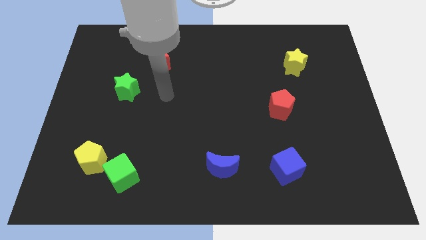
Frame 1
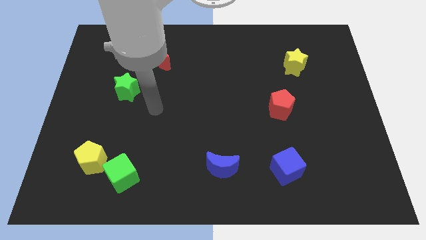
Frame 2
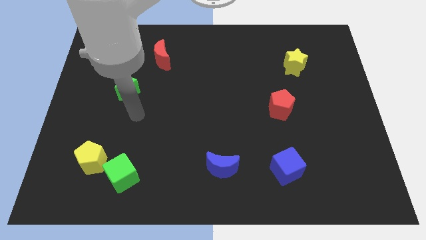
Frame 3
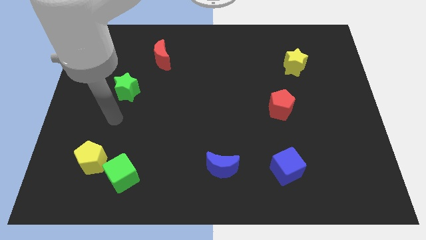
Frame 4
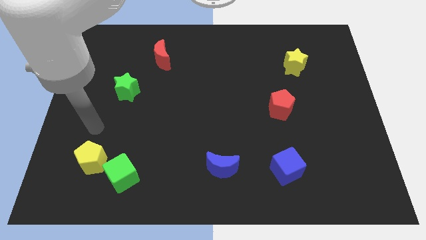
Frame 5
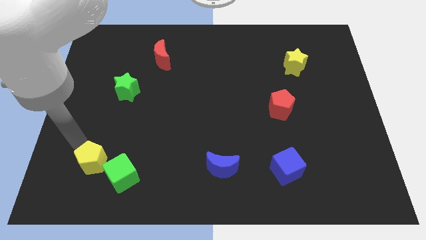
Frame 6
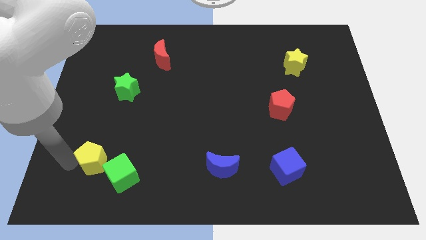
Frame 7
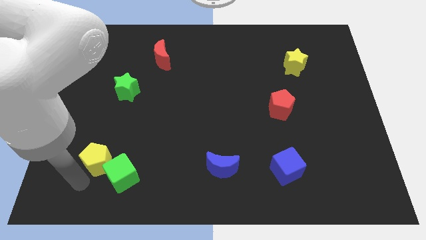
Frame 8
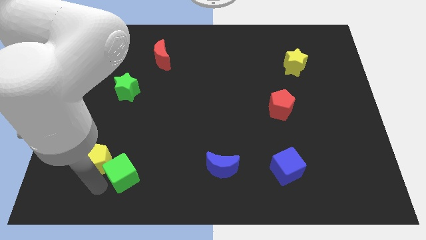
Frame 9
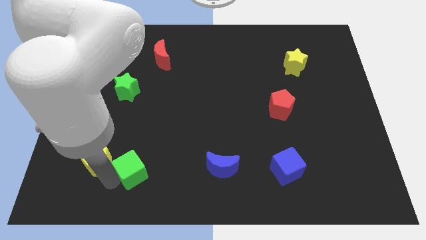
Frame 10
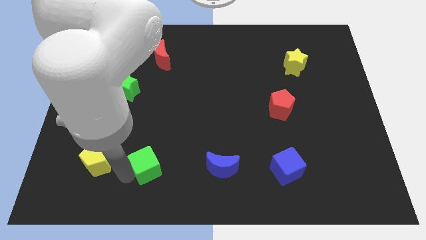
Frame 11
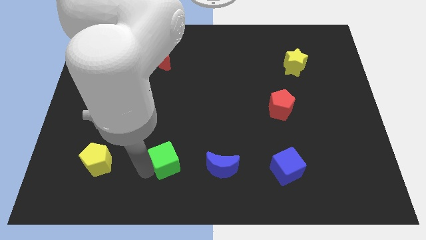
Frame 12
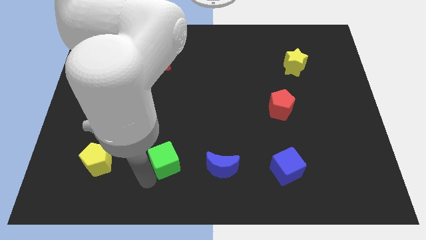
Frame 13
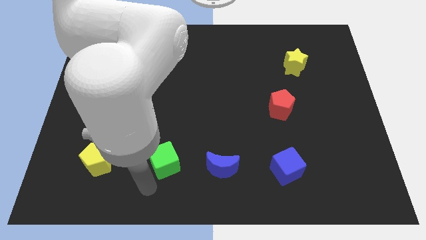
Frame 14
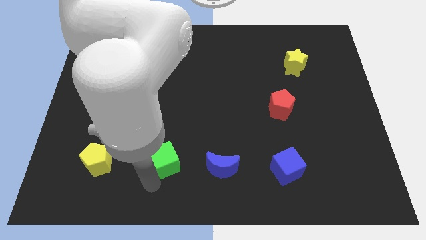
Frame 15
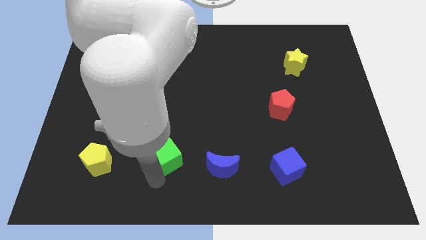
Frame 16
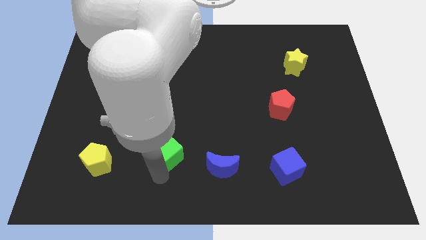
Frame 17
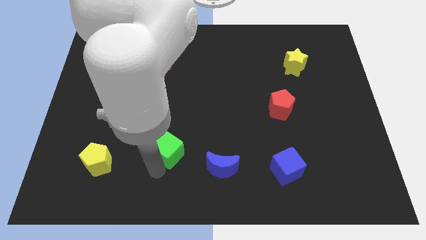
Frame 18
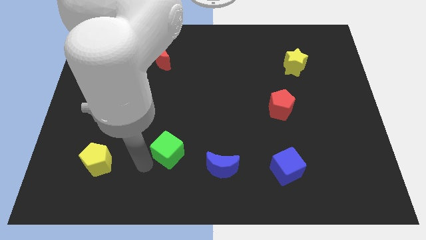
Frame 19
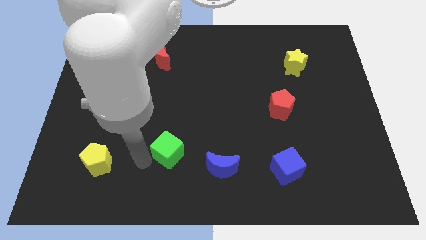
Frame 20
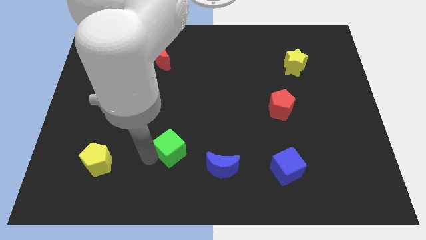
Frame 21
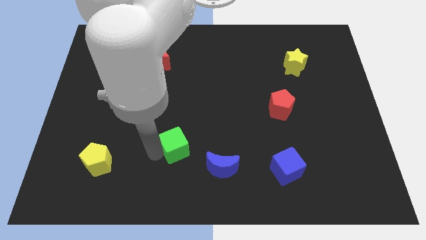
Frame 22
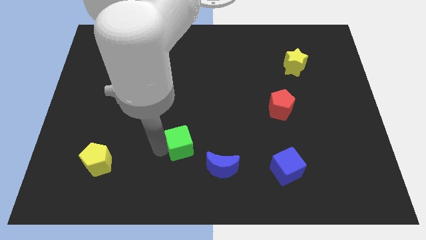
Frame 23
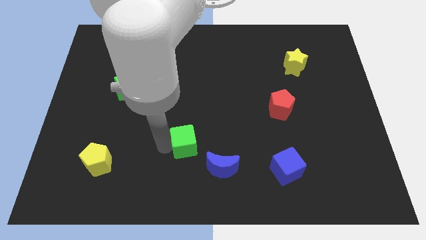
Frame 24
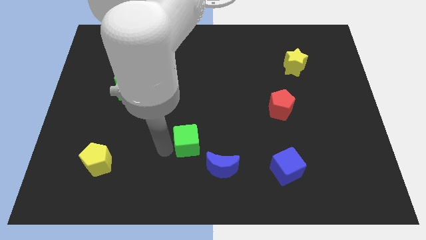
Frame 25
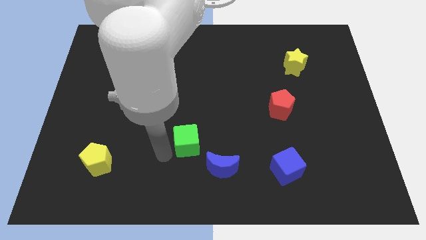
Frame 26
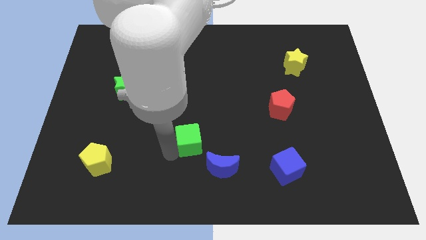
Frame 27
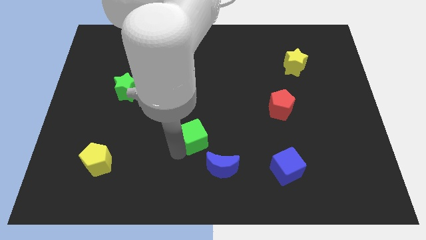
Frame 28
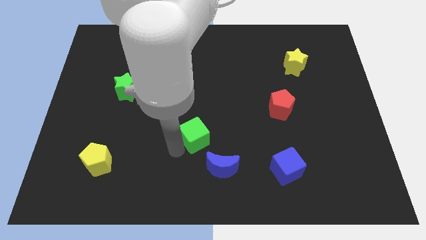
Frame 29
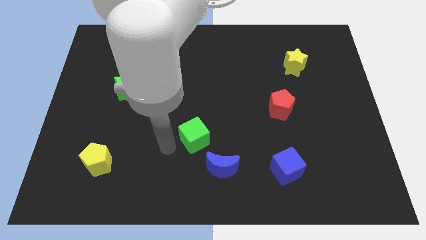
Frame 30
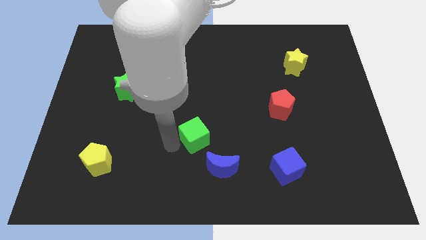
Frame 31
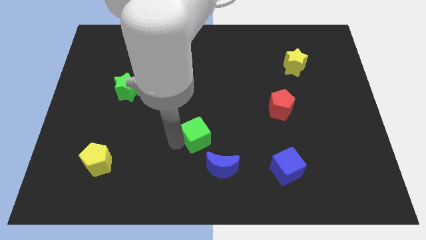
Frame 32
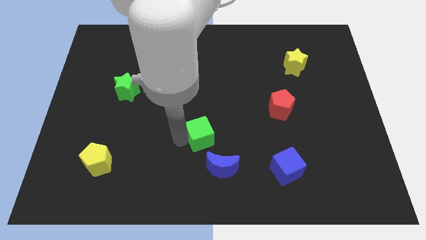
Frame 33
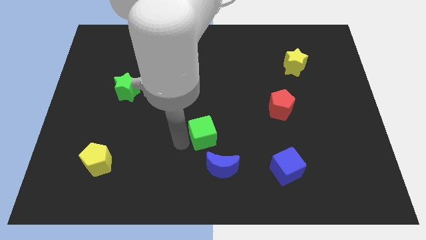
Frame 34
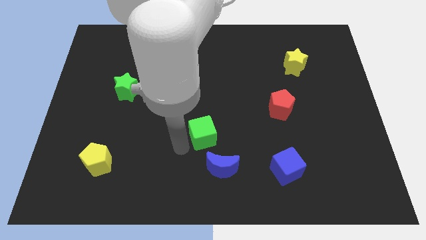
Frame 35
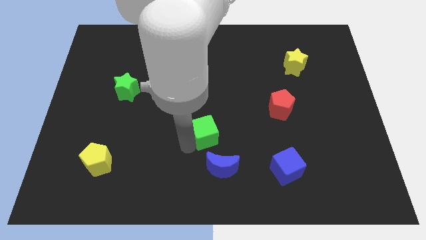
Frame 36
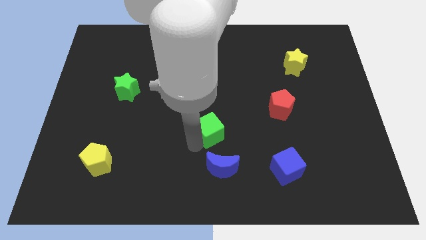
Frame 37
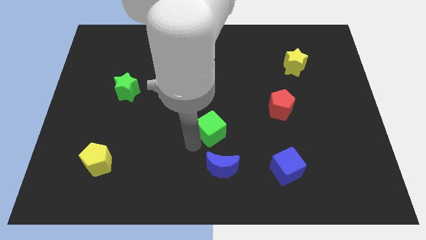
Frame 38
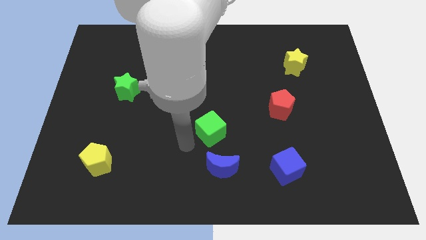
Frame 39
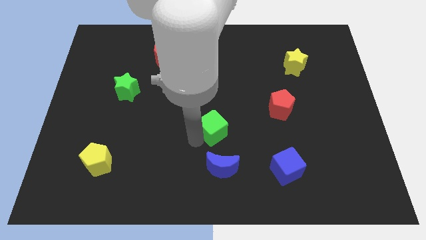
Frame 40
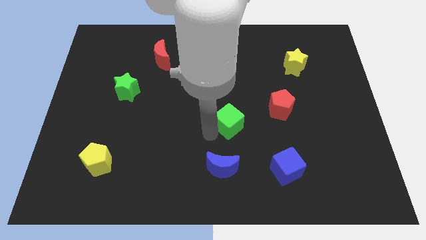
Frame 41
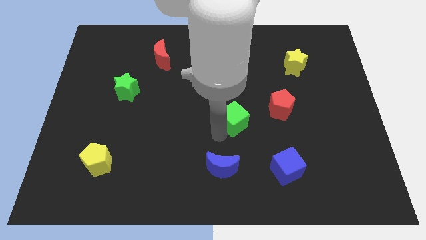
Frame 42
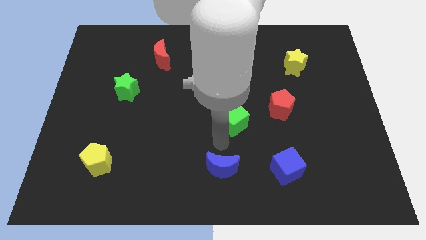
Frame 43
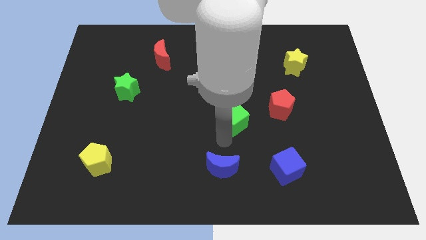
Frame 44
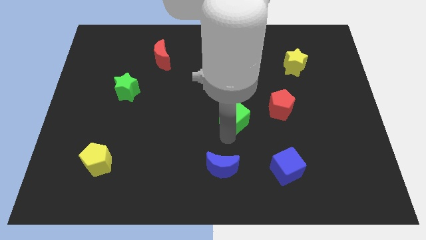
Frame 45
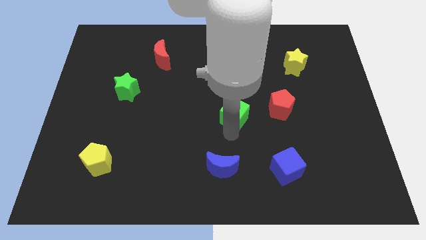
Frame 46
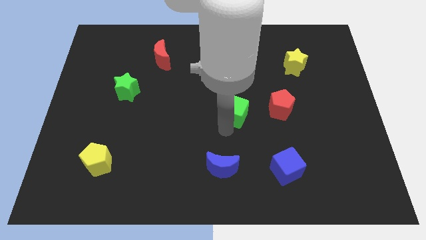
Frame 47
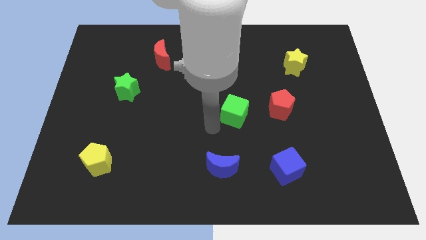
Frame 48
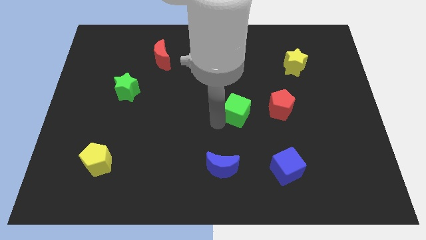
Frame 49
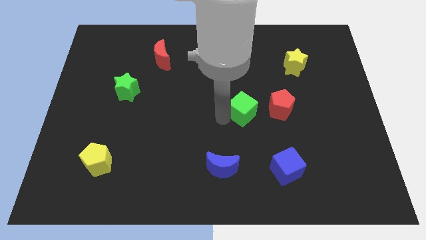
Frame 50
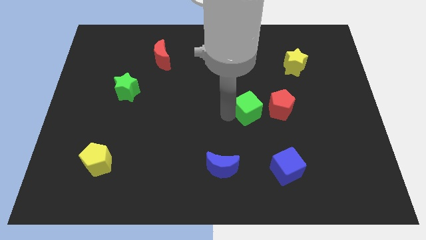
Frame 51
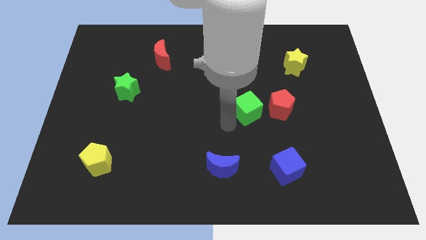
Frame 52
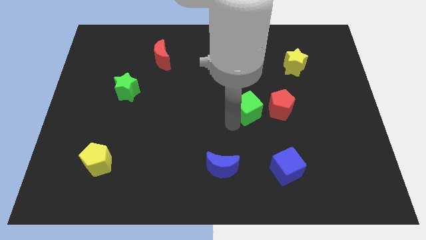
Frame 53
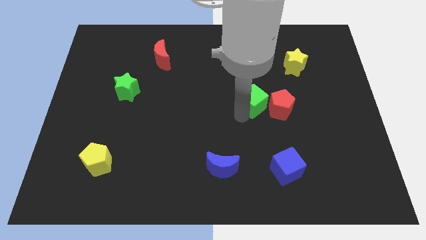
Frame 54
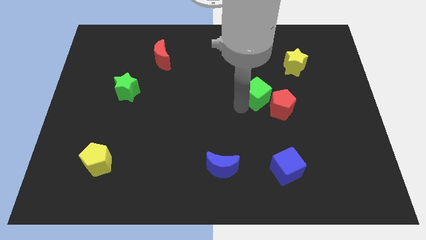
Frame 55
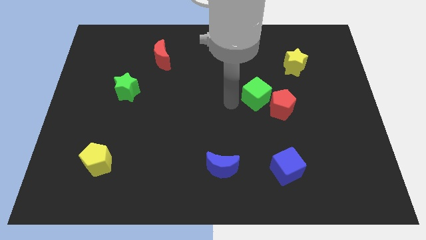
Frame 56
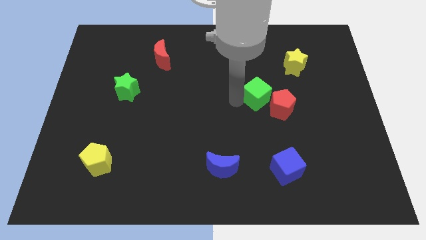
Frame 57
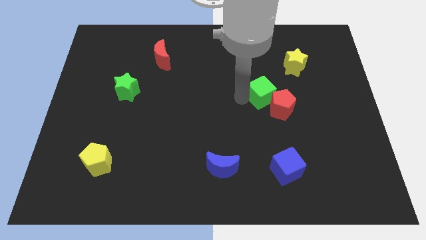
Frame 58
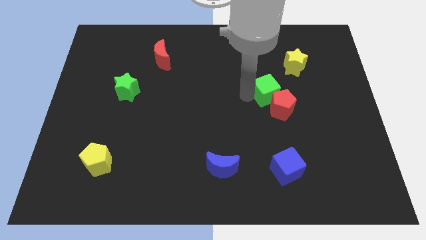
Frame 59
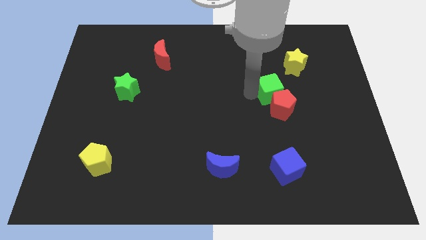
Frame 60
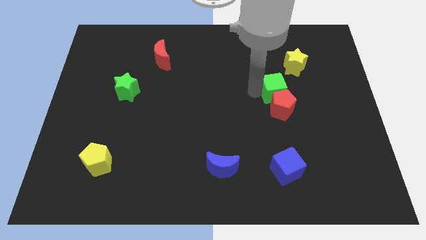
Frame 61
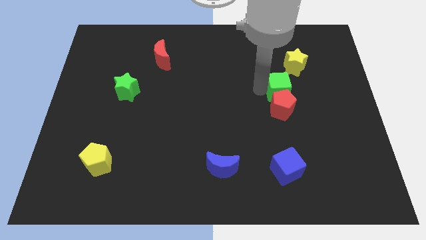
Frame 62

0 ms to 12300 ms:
slide the green cube below the yellow star

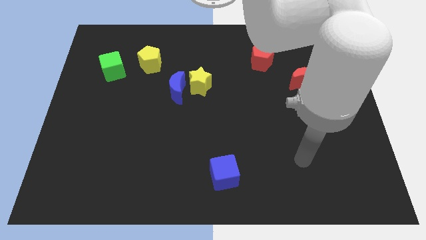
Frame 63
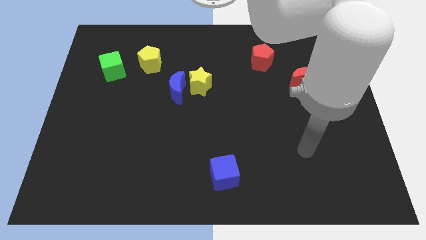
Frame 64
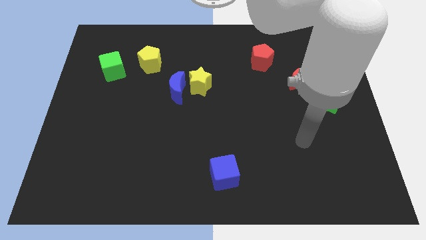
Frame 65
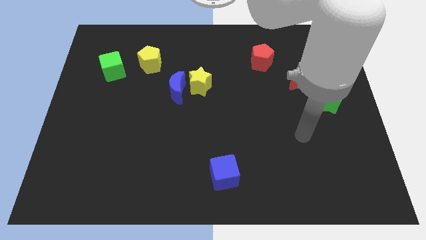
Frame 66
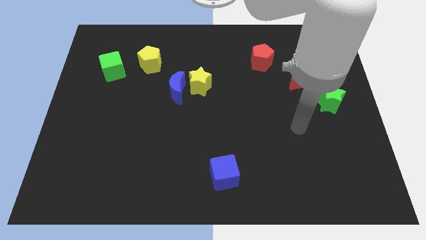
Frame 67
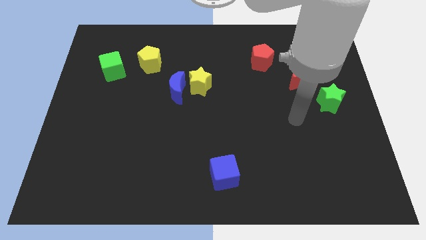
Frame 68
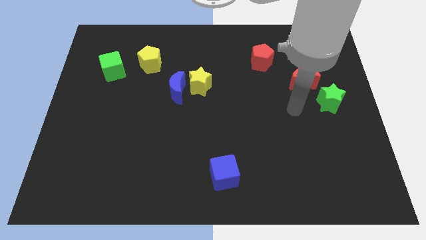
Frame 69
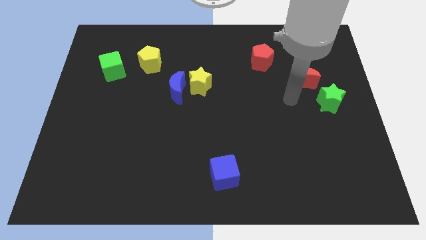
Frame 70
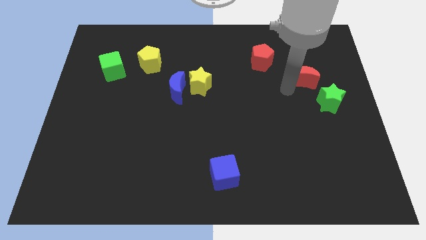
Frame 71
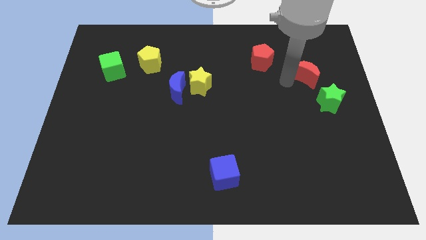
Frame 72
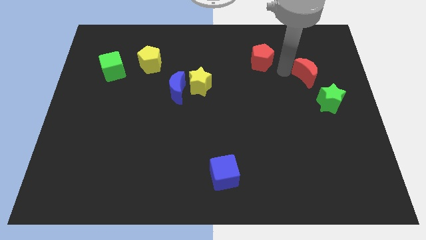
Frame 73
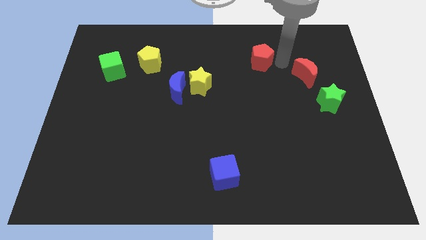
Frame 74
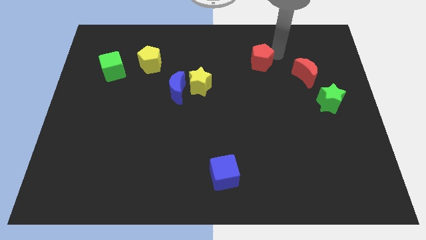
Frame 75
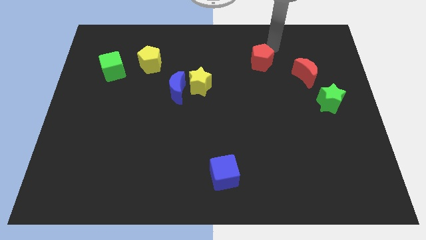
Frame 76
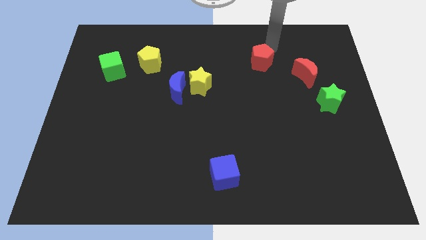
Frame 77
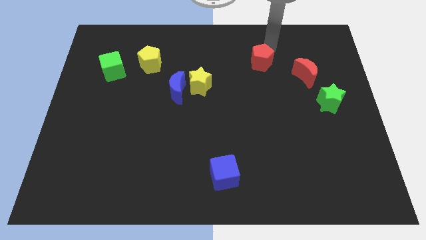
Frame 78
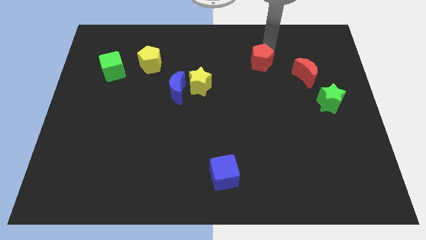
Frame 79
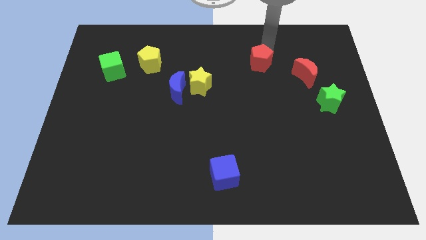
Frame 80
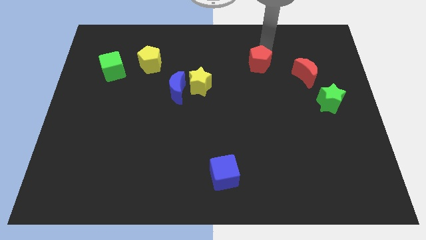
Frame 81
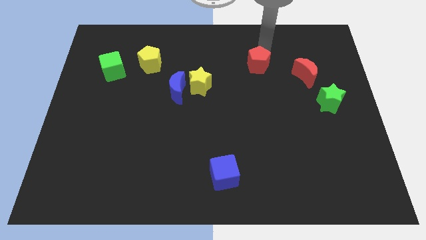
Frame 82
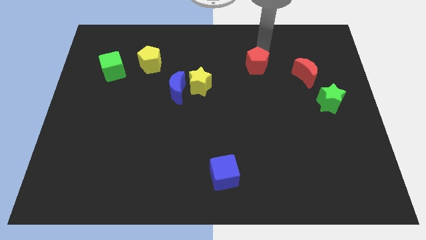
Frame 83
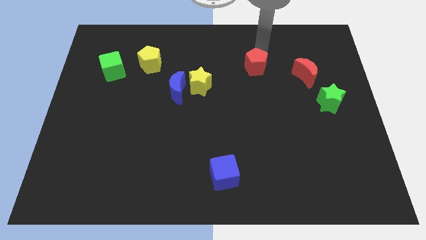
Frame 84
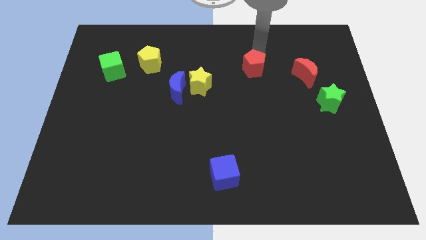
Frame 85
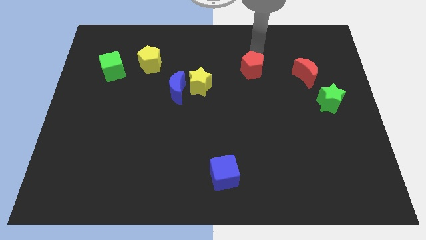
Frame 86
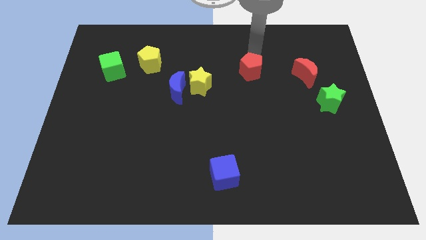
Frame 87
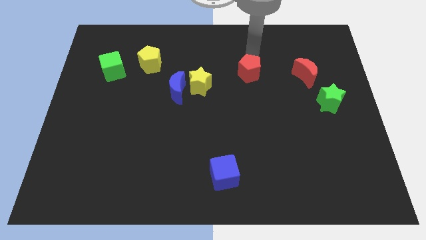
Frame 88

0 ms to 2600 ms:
put the red pentagon to the right side of the yellow star
